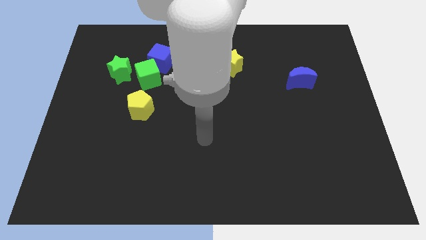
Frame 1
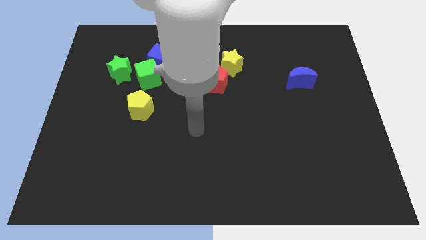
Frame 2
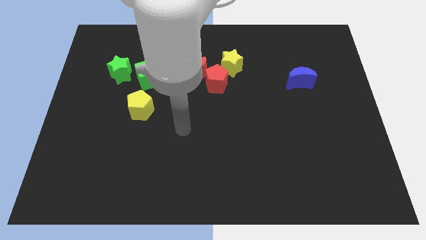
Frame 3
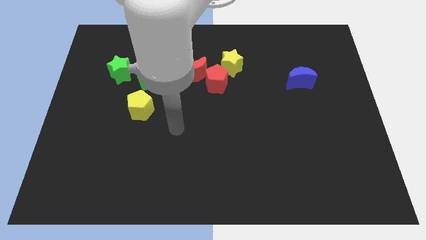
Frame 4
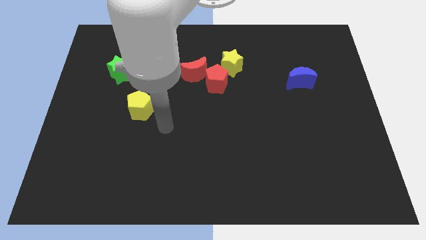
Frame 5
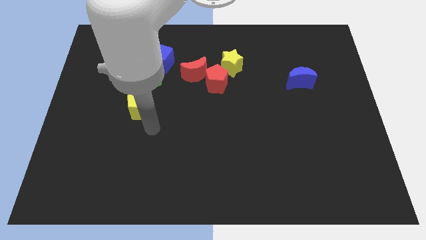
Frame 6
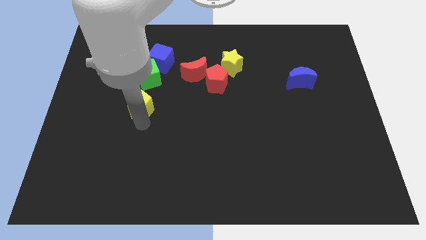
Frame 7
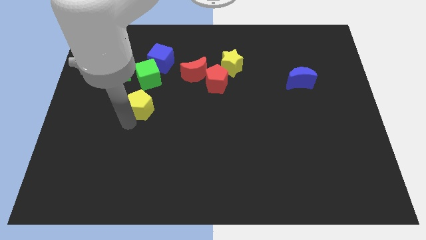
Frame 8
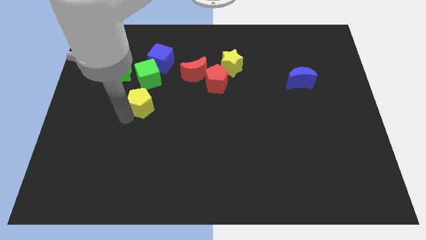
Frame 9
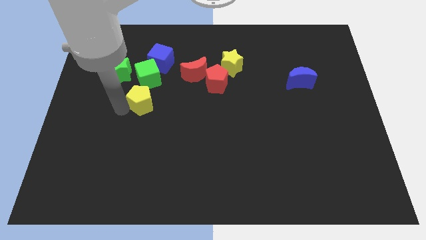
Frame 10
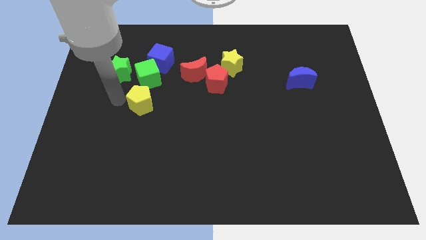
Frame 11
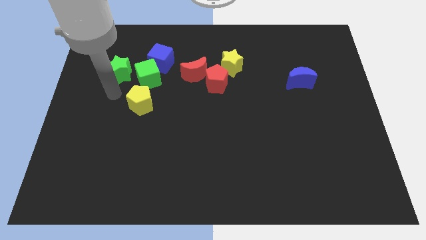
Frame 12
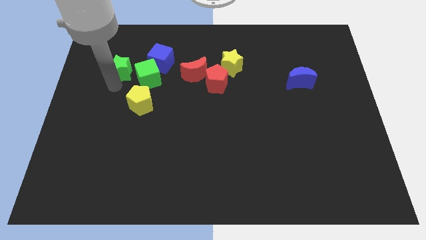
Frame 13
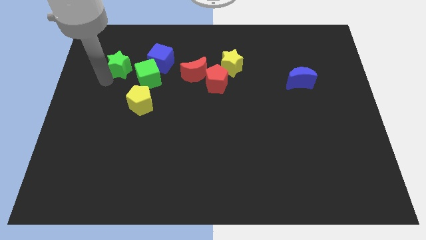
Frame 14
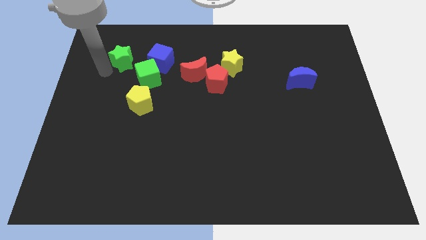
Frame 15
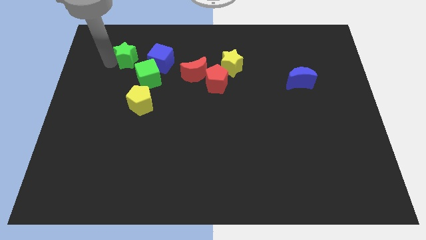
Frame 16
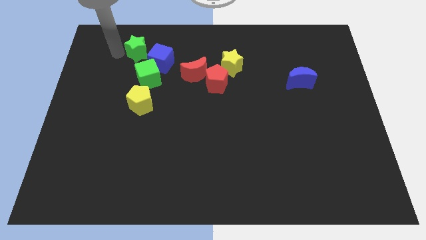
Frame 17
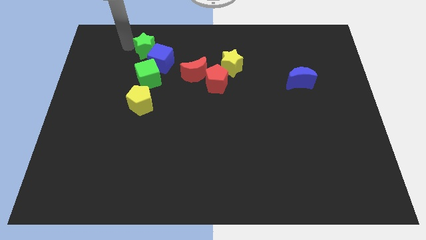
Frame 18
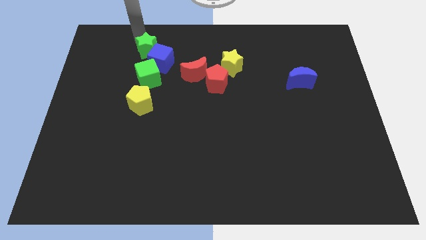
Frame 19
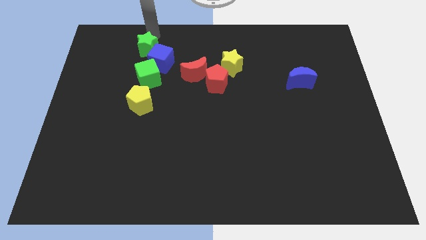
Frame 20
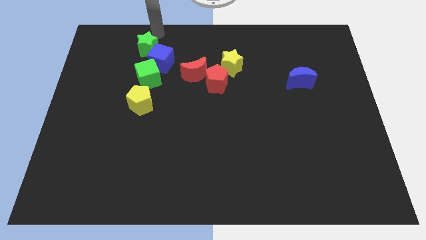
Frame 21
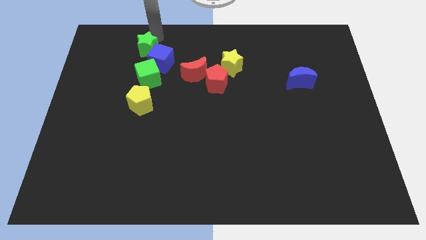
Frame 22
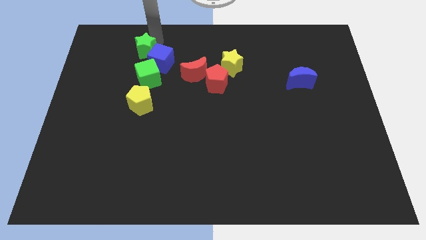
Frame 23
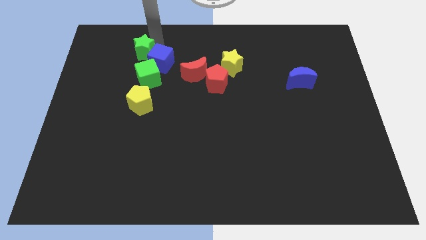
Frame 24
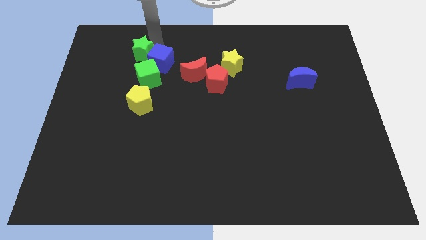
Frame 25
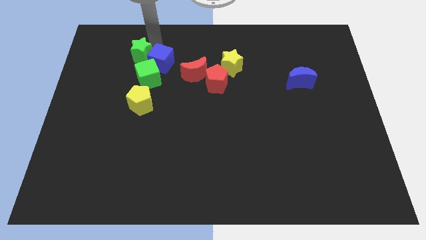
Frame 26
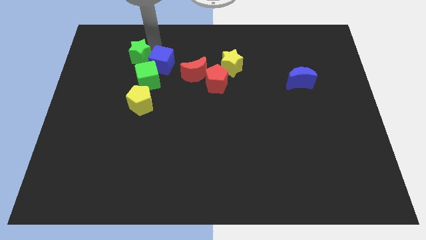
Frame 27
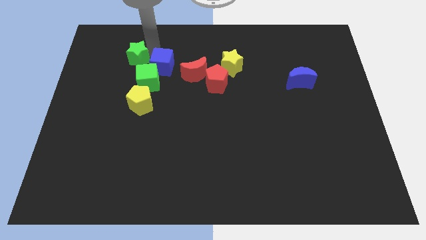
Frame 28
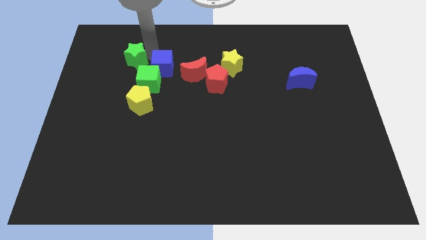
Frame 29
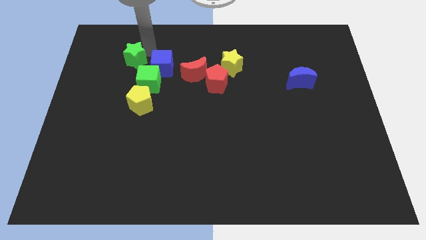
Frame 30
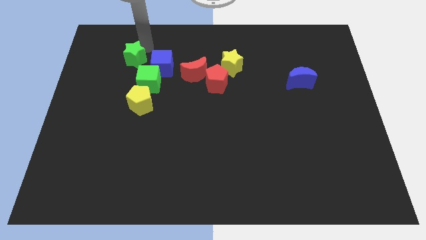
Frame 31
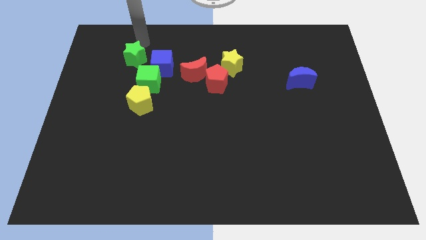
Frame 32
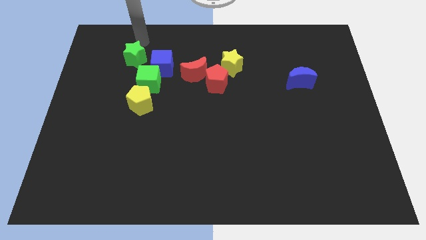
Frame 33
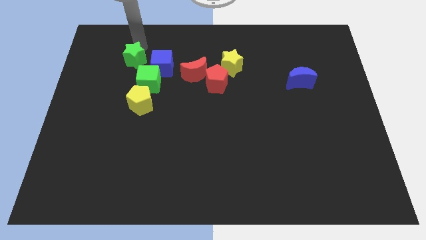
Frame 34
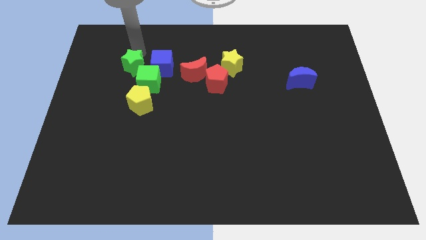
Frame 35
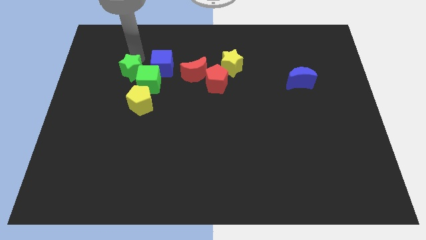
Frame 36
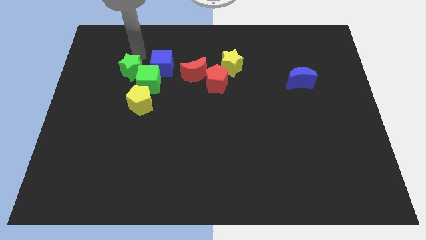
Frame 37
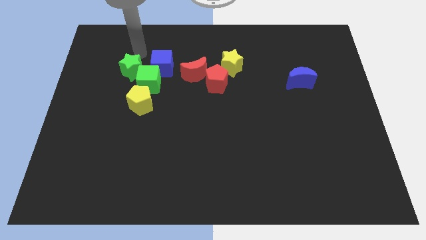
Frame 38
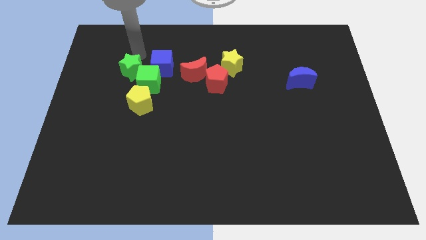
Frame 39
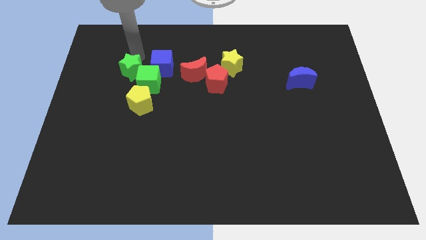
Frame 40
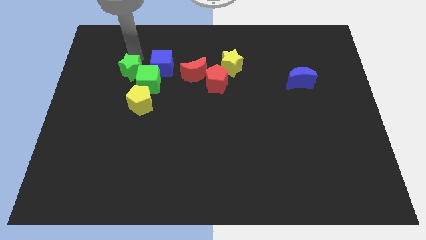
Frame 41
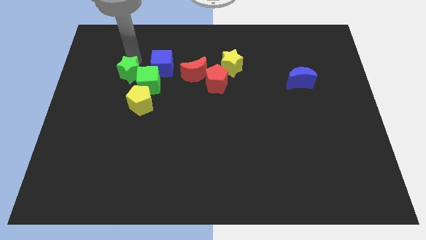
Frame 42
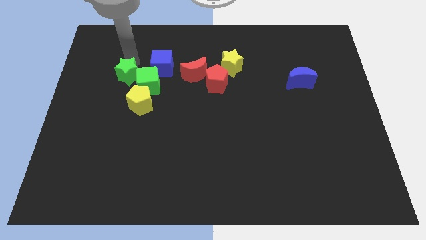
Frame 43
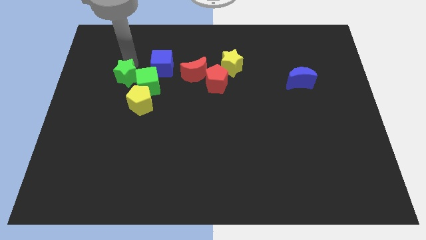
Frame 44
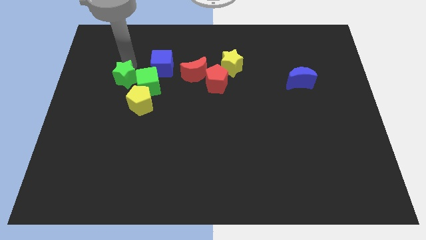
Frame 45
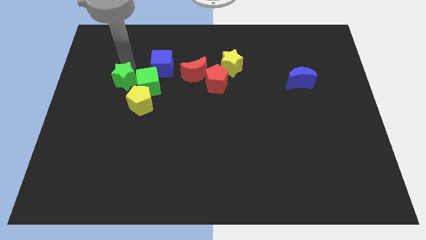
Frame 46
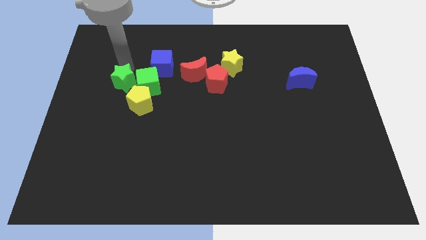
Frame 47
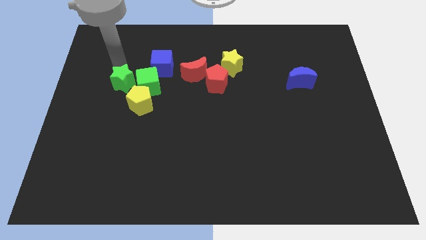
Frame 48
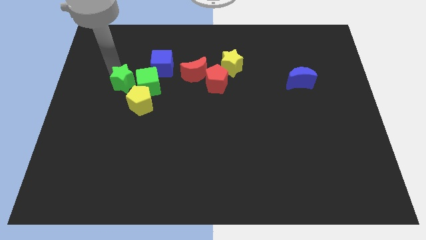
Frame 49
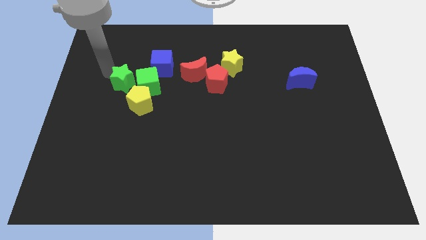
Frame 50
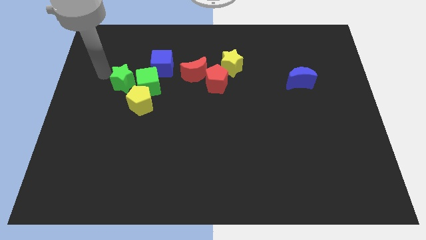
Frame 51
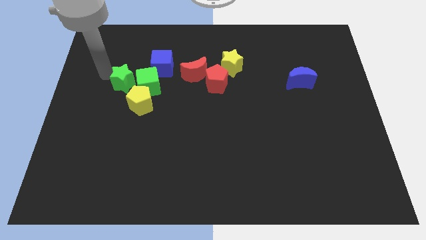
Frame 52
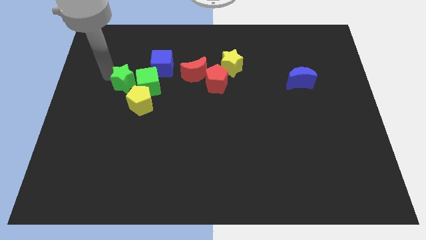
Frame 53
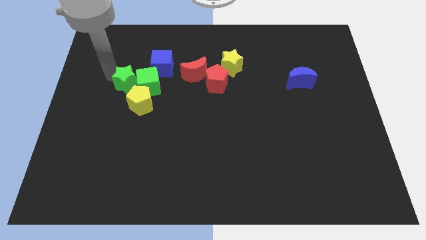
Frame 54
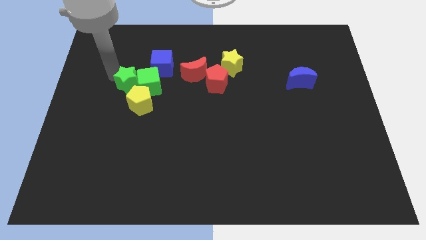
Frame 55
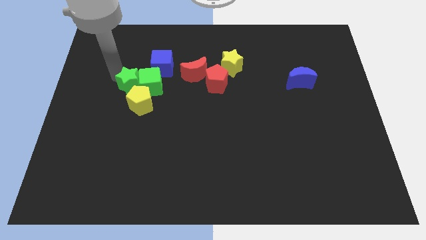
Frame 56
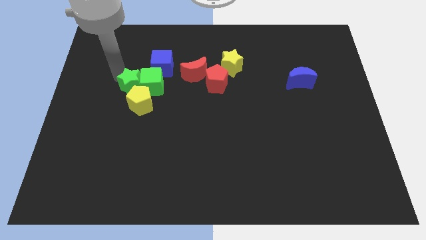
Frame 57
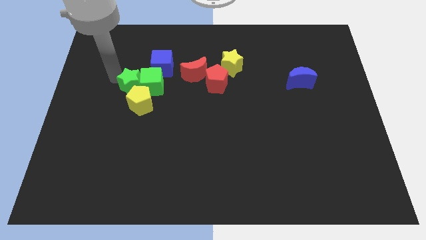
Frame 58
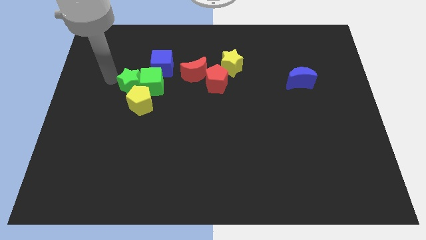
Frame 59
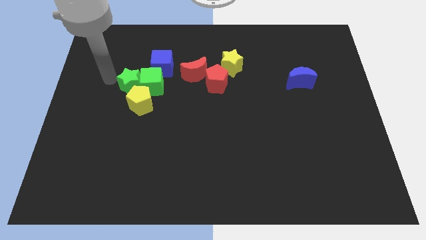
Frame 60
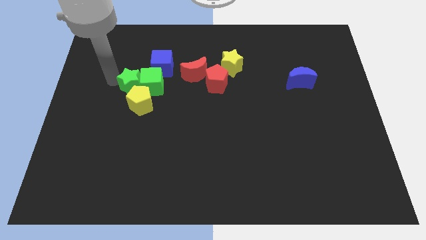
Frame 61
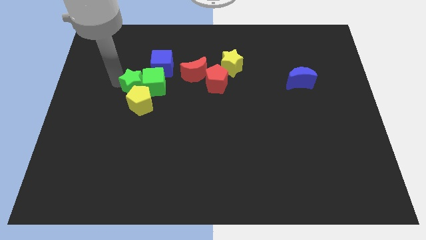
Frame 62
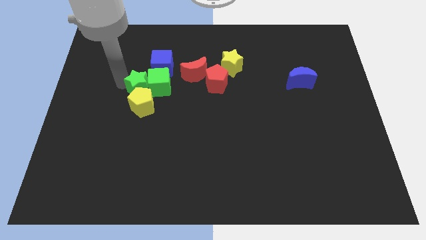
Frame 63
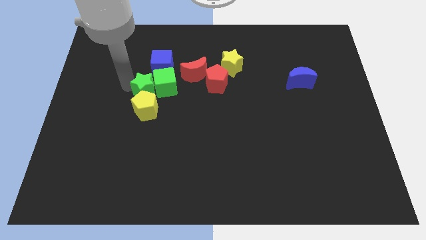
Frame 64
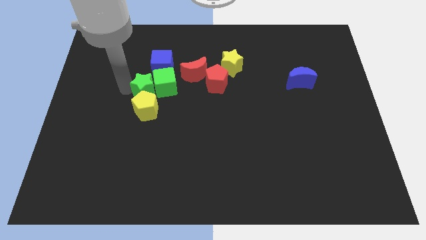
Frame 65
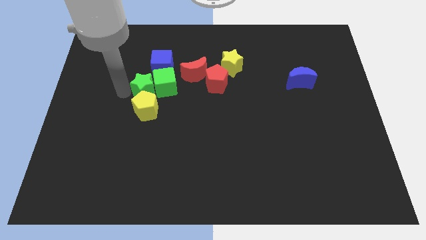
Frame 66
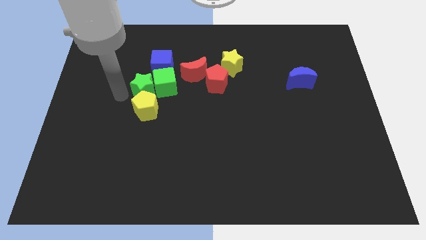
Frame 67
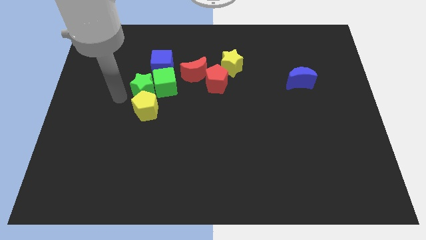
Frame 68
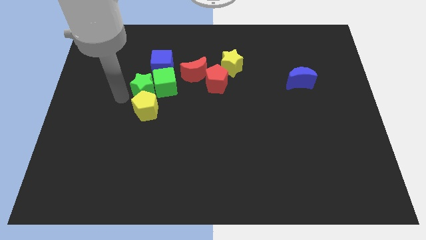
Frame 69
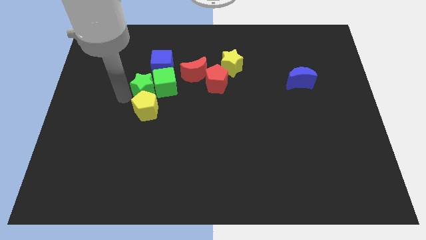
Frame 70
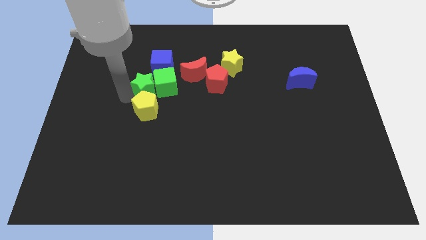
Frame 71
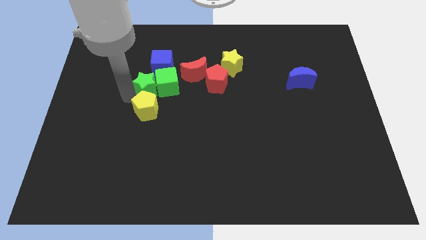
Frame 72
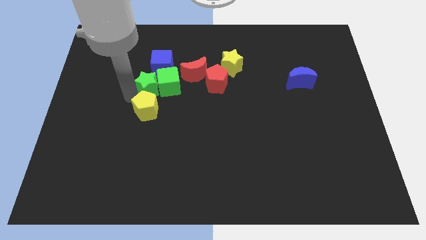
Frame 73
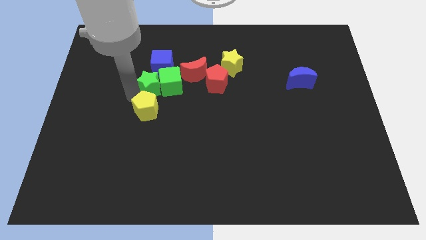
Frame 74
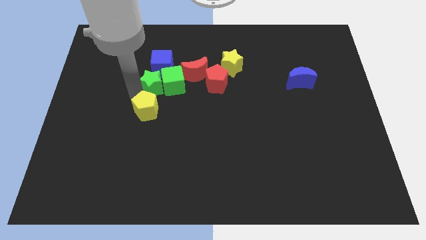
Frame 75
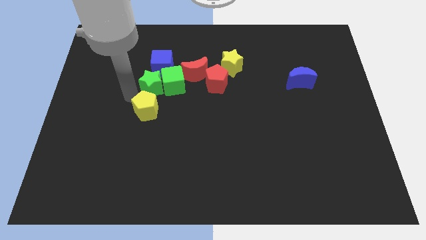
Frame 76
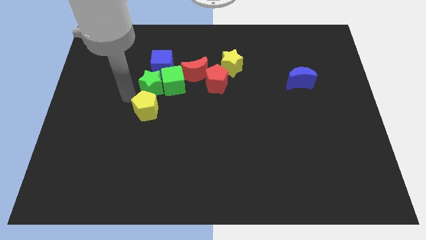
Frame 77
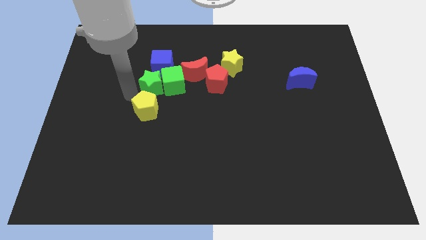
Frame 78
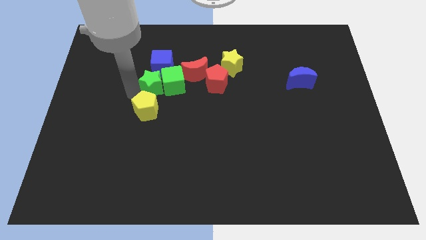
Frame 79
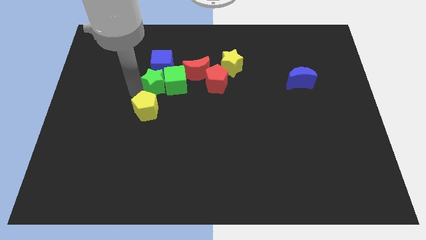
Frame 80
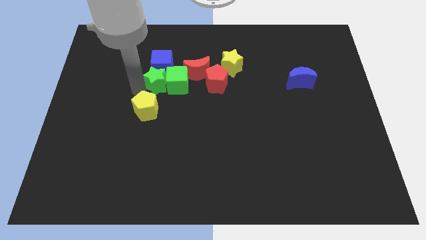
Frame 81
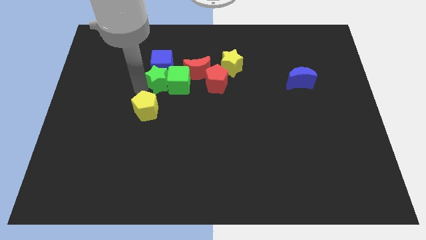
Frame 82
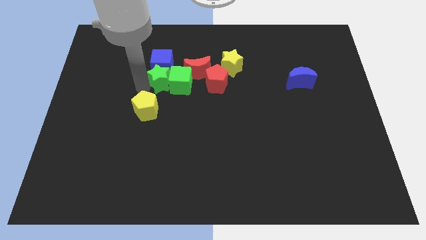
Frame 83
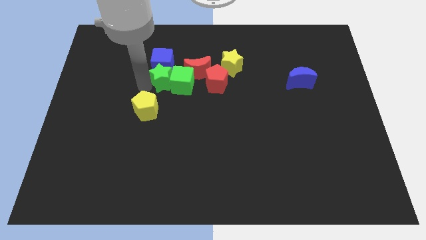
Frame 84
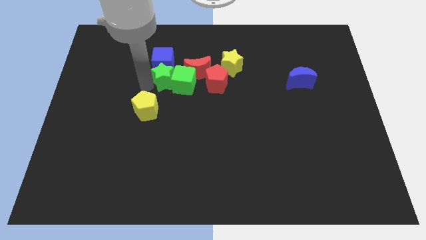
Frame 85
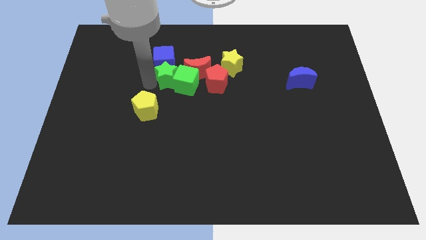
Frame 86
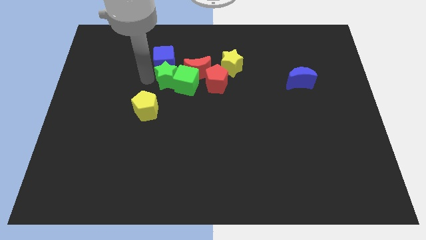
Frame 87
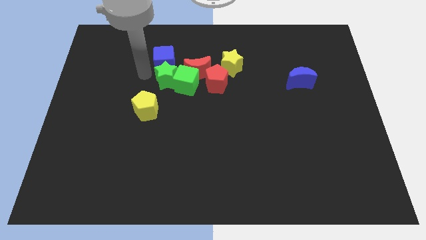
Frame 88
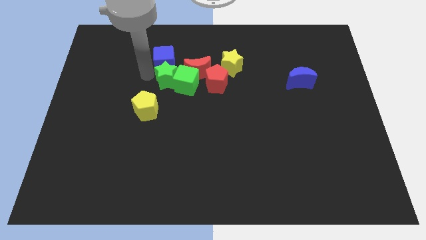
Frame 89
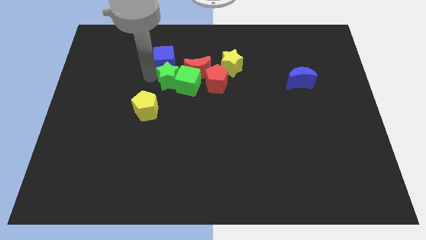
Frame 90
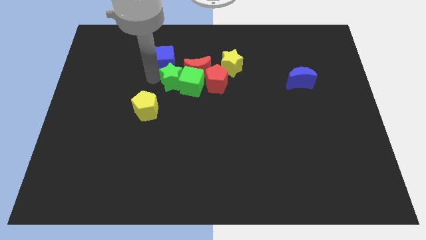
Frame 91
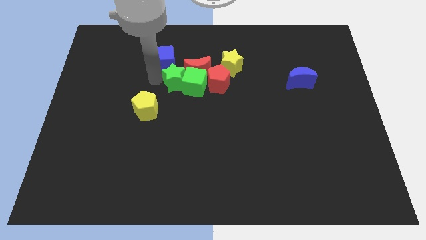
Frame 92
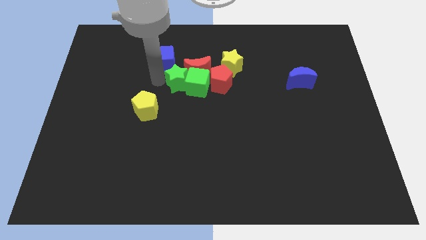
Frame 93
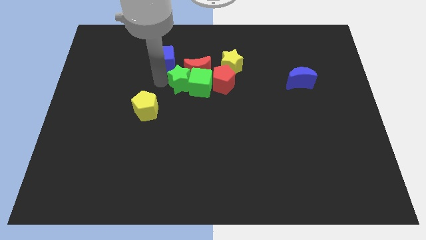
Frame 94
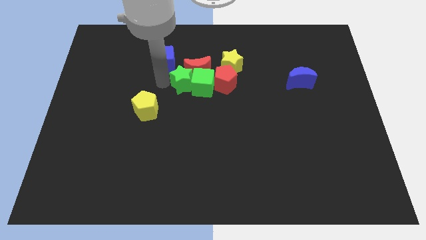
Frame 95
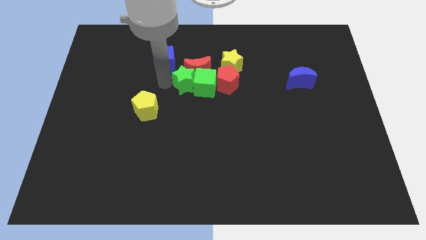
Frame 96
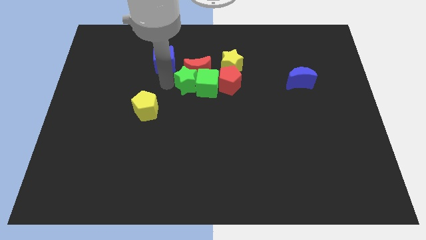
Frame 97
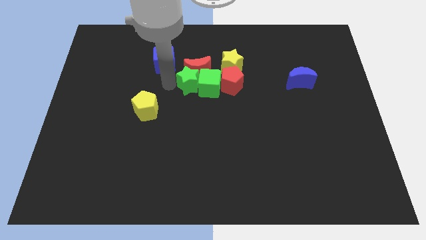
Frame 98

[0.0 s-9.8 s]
put the green star diagonally down and to the left of the yellow star
